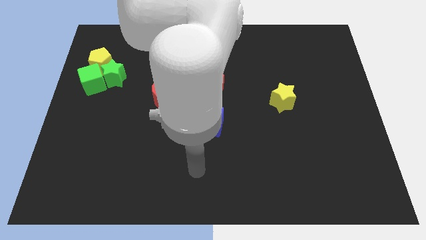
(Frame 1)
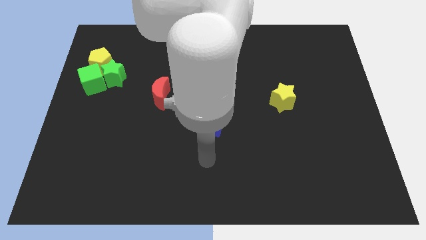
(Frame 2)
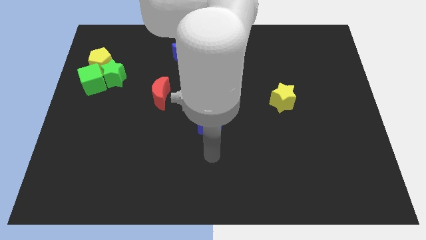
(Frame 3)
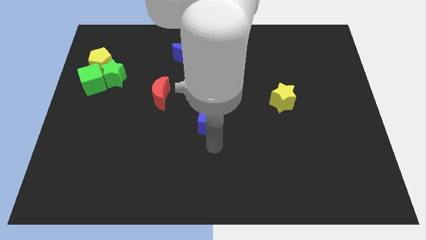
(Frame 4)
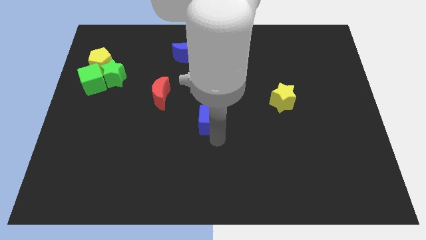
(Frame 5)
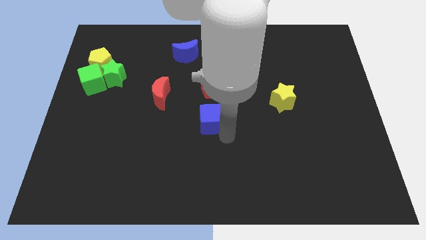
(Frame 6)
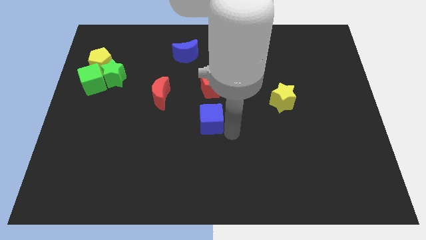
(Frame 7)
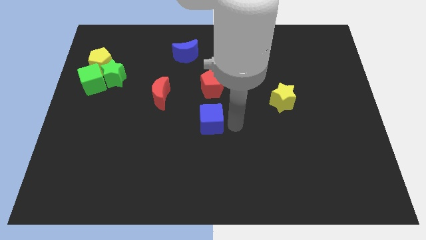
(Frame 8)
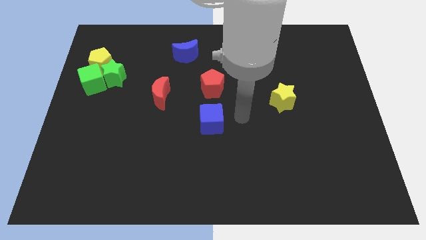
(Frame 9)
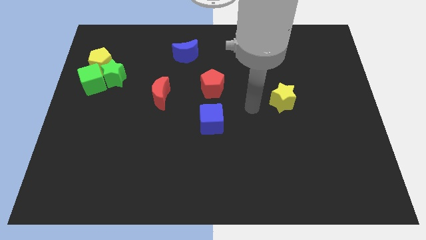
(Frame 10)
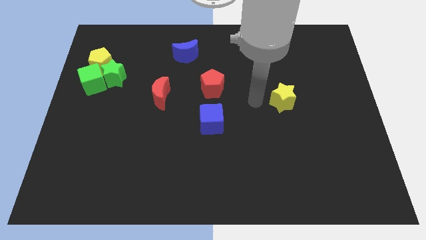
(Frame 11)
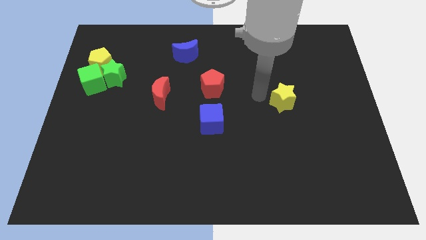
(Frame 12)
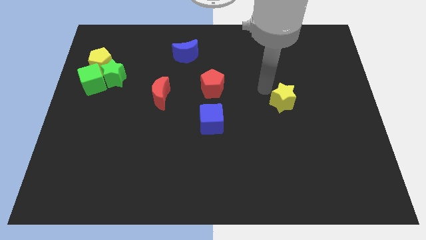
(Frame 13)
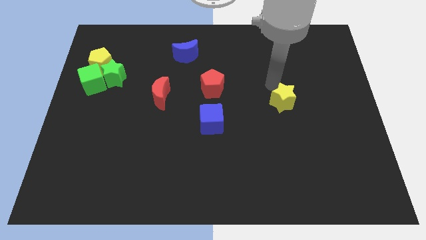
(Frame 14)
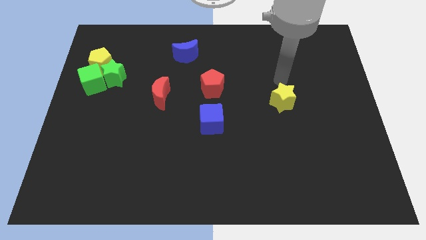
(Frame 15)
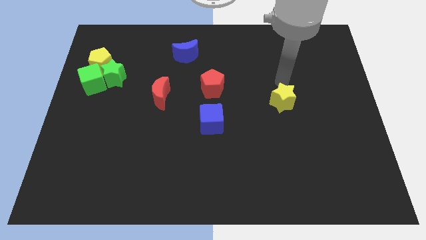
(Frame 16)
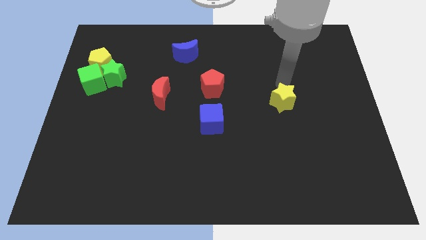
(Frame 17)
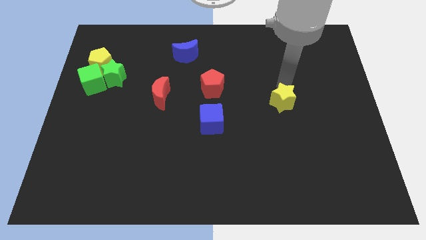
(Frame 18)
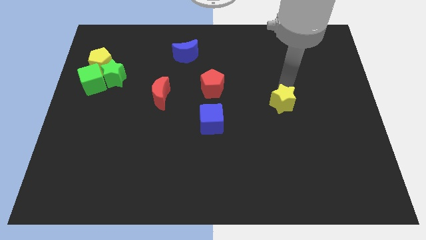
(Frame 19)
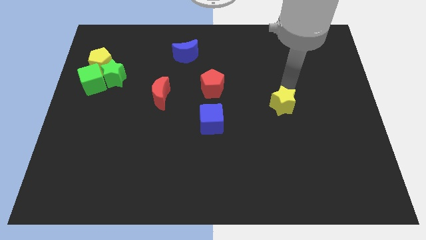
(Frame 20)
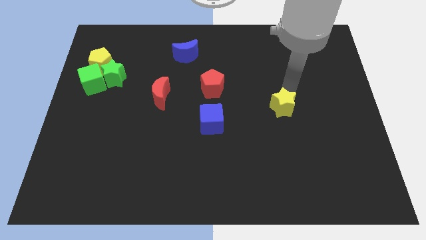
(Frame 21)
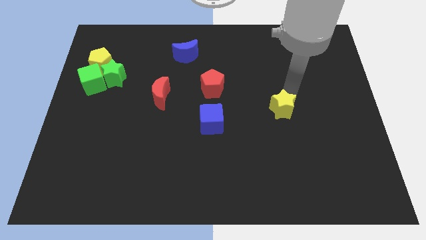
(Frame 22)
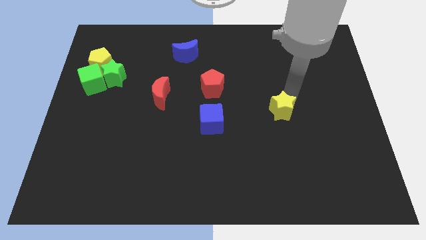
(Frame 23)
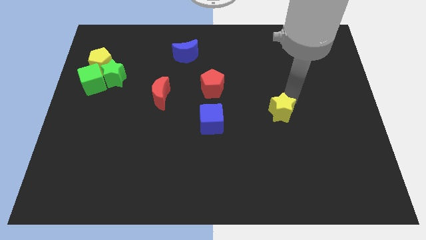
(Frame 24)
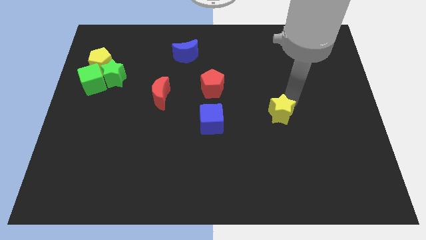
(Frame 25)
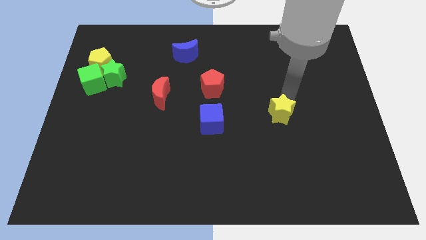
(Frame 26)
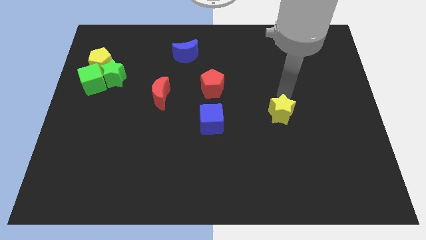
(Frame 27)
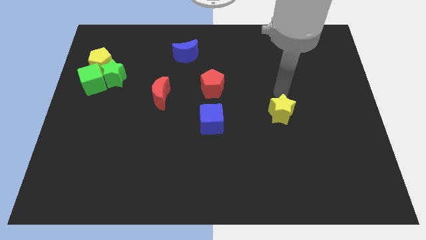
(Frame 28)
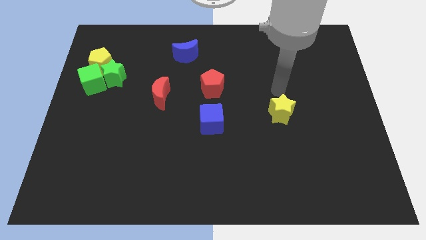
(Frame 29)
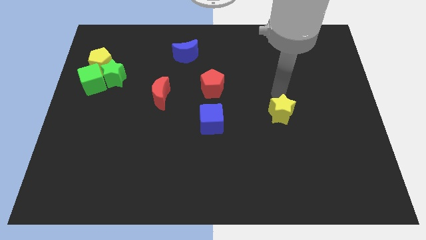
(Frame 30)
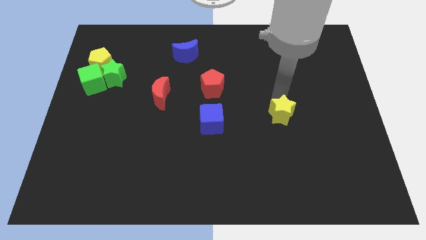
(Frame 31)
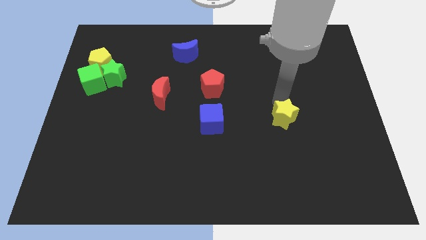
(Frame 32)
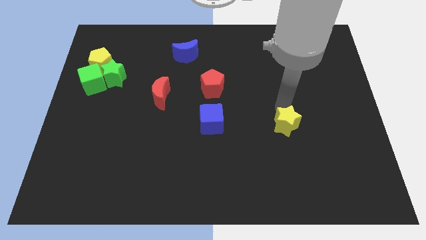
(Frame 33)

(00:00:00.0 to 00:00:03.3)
slightly move the yellow star down

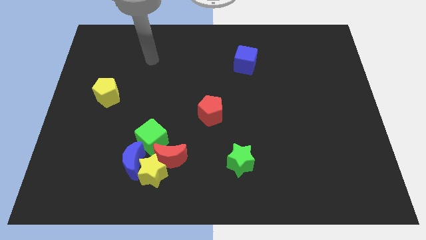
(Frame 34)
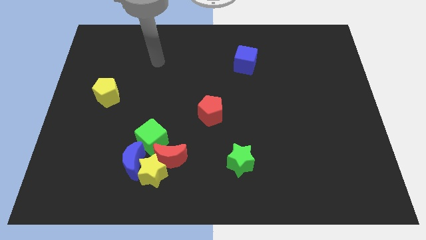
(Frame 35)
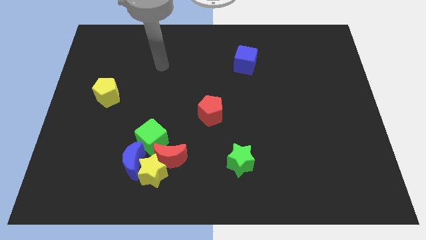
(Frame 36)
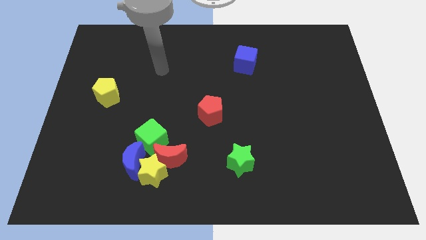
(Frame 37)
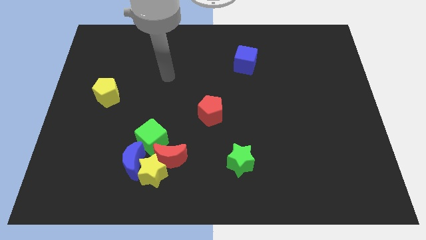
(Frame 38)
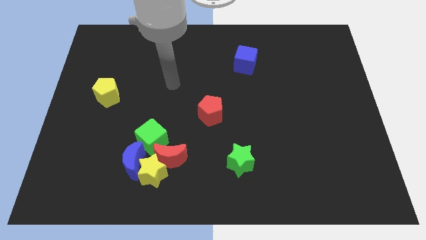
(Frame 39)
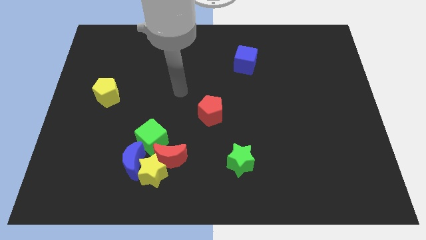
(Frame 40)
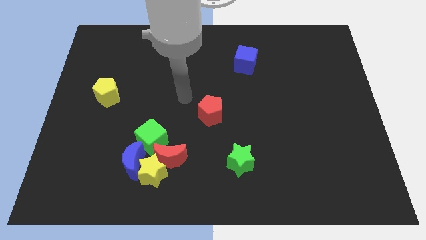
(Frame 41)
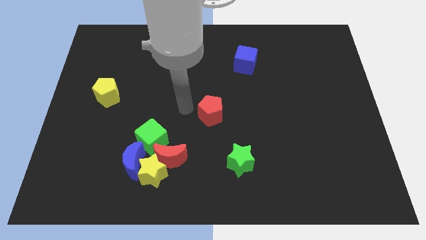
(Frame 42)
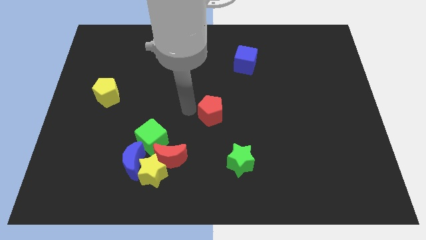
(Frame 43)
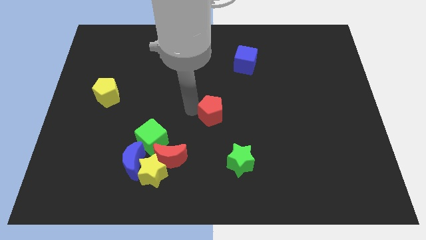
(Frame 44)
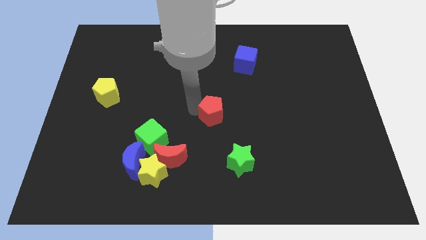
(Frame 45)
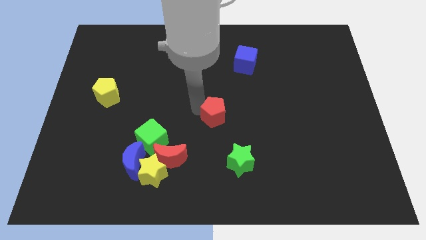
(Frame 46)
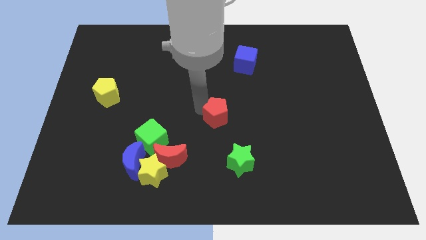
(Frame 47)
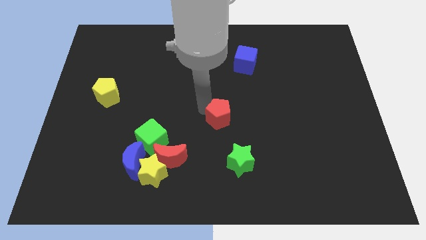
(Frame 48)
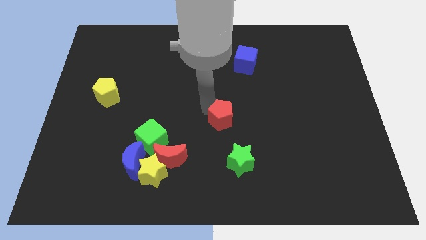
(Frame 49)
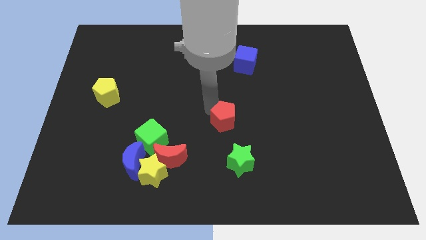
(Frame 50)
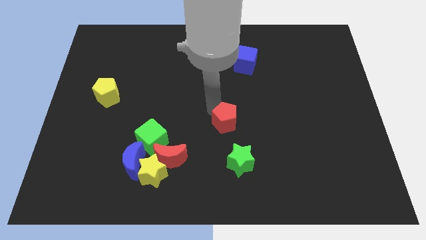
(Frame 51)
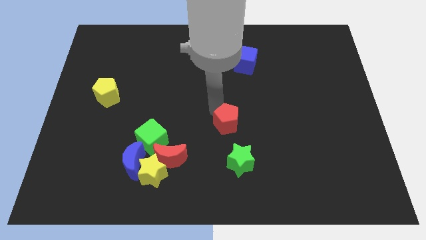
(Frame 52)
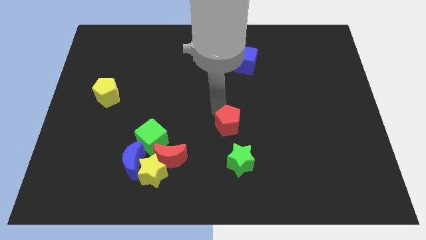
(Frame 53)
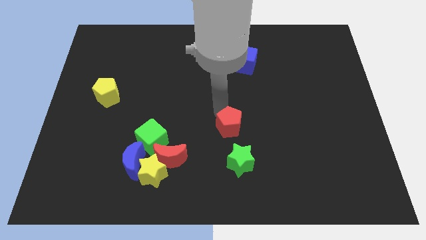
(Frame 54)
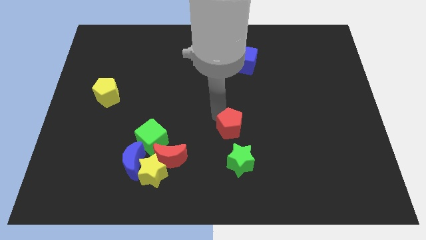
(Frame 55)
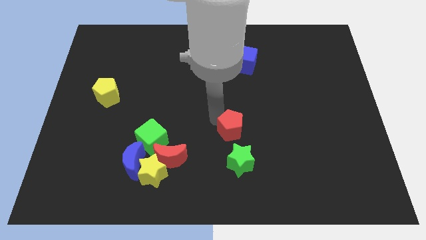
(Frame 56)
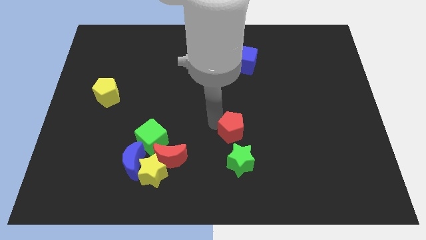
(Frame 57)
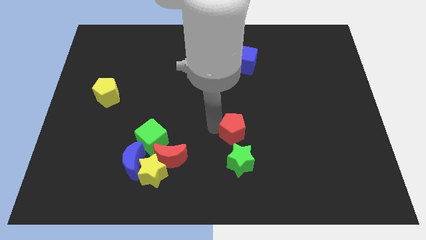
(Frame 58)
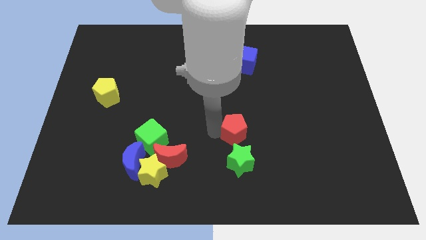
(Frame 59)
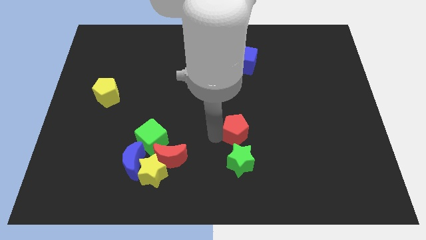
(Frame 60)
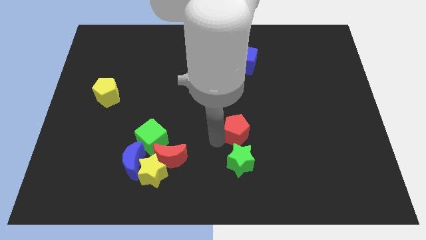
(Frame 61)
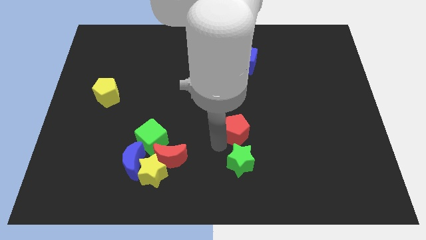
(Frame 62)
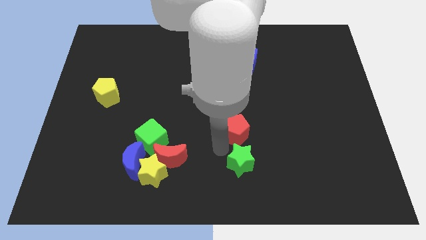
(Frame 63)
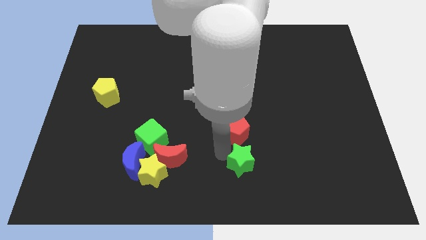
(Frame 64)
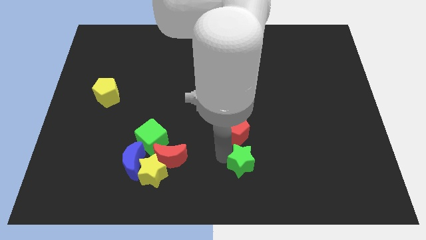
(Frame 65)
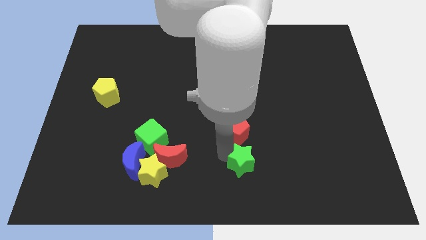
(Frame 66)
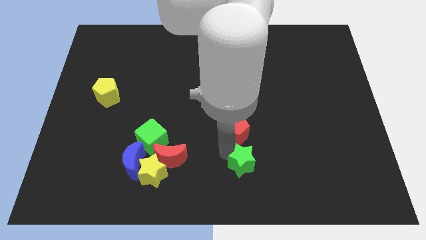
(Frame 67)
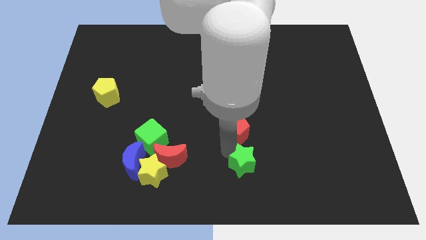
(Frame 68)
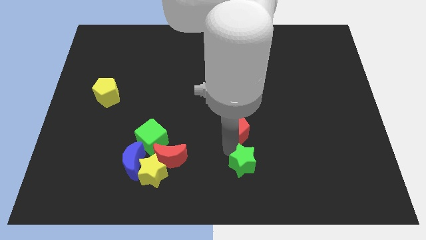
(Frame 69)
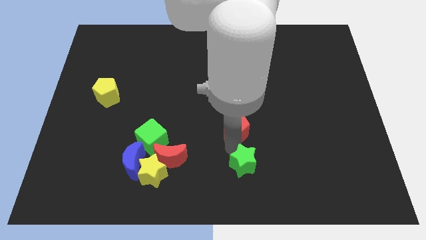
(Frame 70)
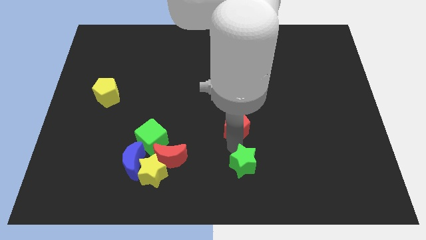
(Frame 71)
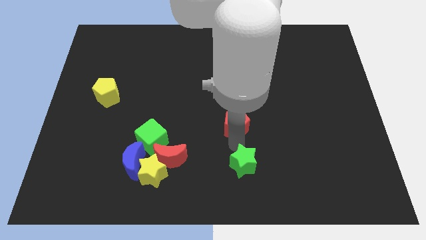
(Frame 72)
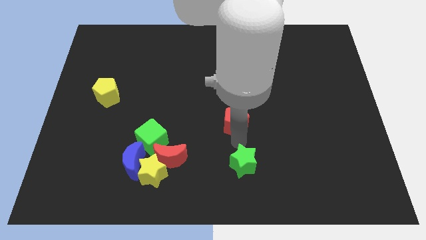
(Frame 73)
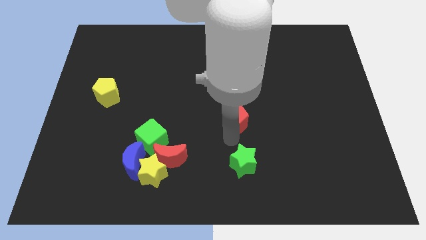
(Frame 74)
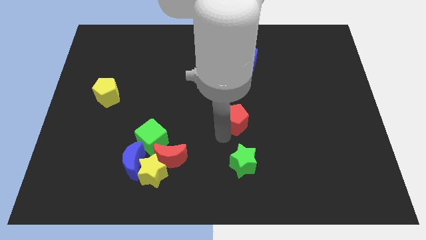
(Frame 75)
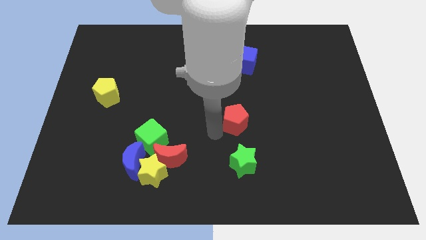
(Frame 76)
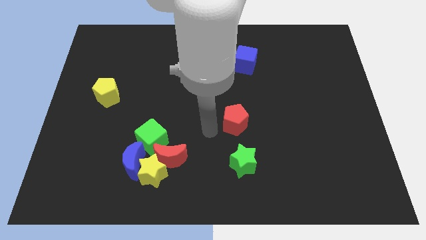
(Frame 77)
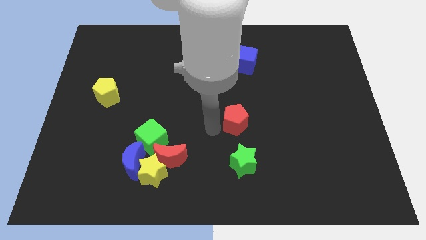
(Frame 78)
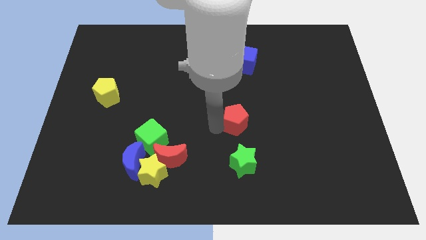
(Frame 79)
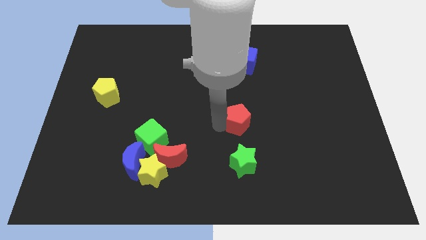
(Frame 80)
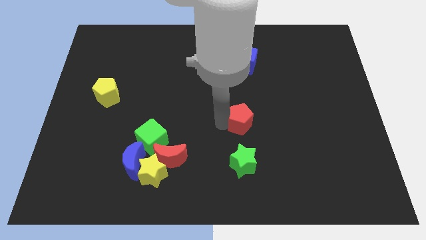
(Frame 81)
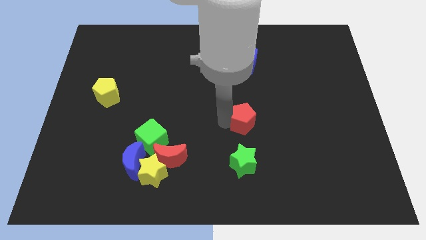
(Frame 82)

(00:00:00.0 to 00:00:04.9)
push the red pentagon right a bit
